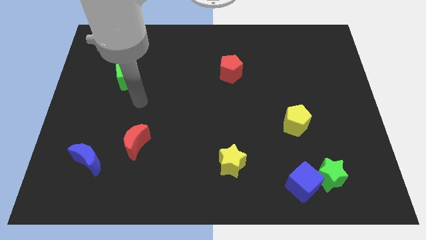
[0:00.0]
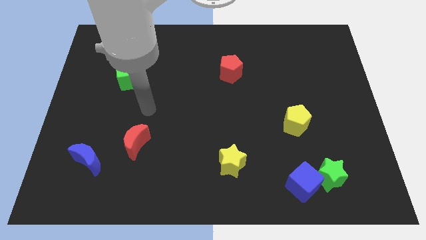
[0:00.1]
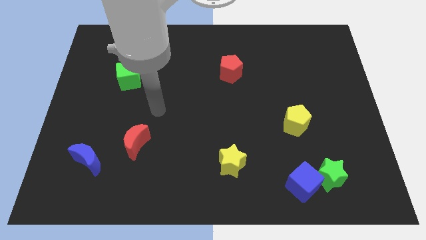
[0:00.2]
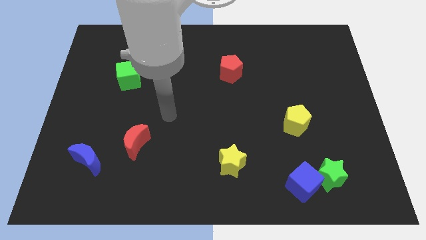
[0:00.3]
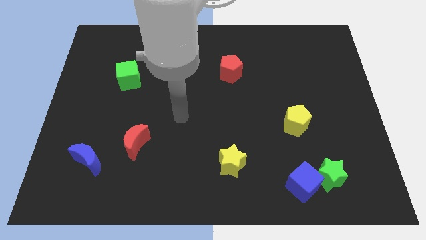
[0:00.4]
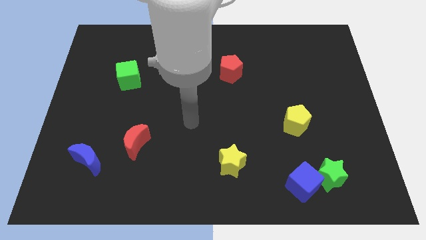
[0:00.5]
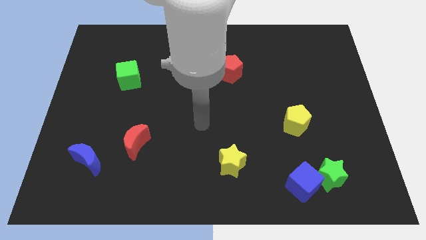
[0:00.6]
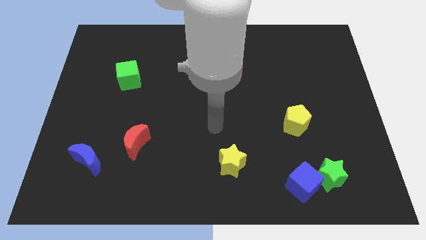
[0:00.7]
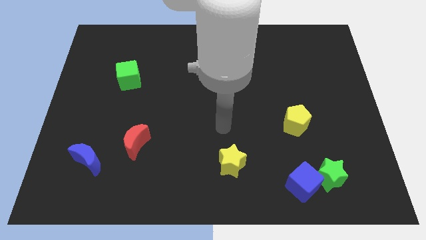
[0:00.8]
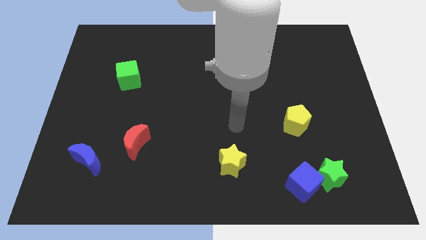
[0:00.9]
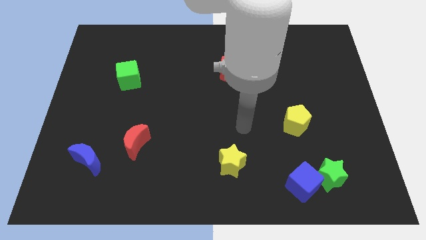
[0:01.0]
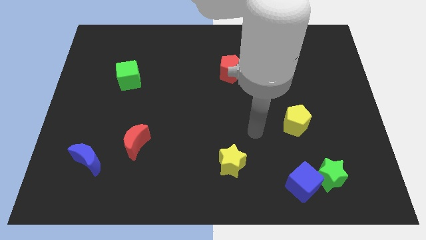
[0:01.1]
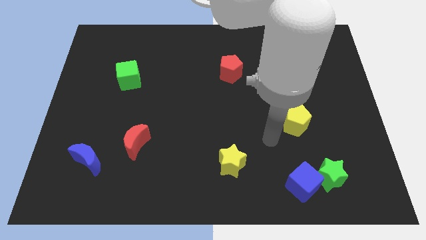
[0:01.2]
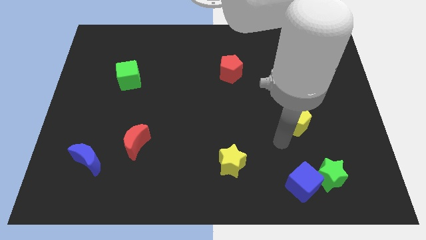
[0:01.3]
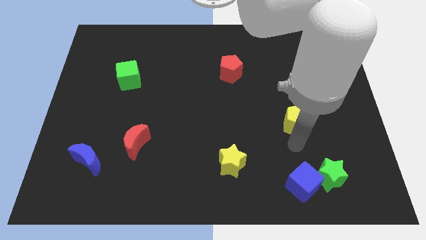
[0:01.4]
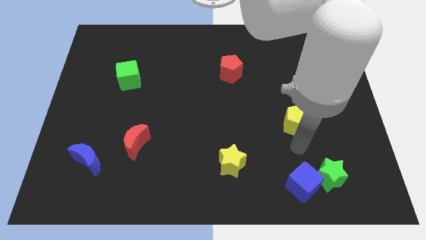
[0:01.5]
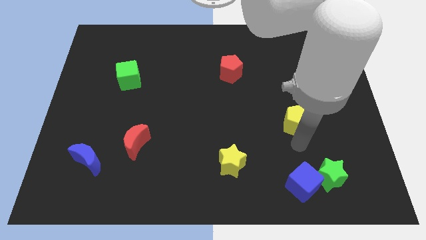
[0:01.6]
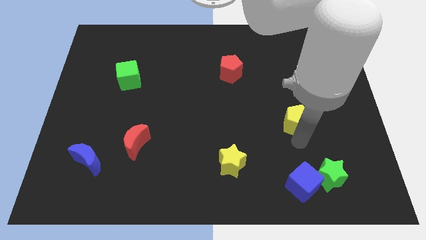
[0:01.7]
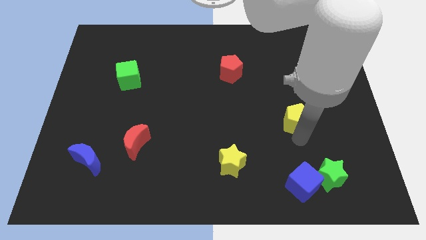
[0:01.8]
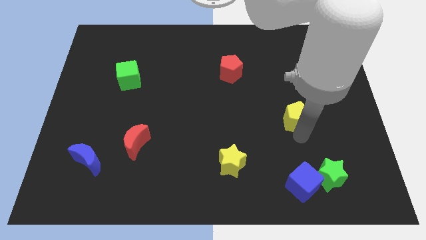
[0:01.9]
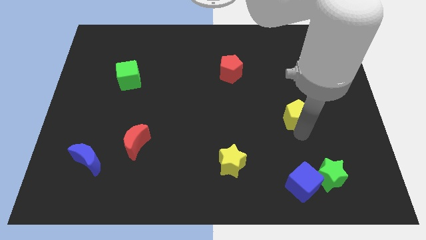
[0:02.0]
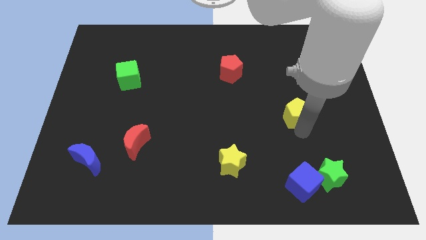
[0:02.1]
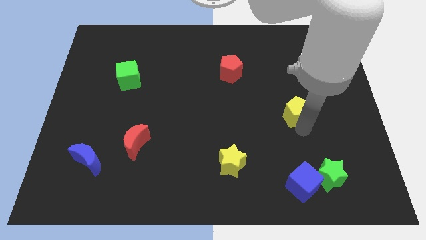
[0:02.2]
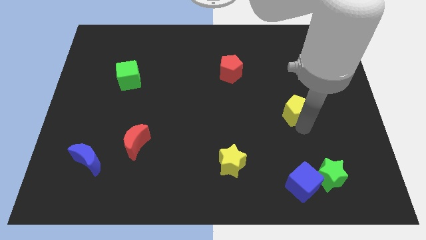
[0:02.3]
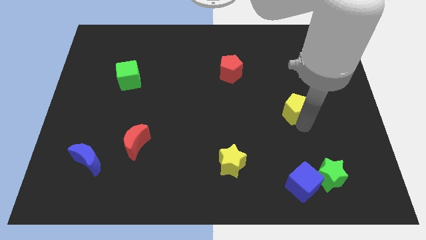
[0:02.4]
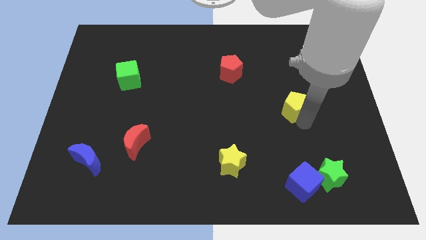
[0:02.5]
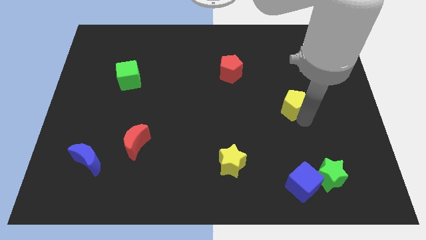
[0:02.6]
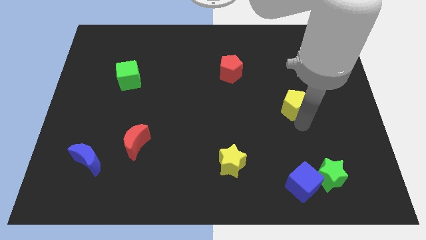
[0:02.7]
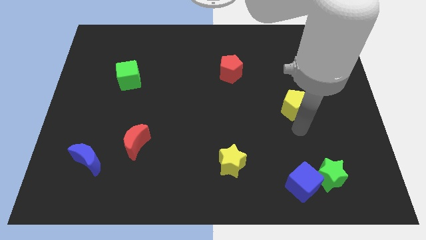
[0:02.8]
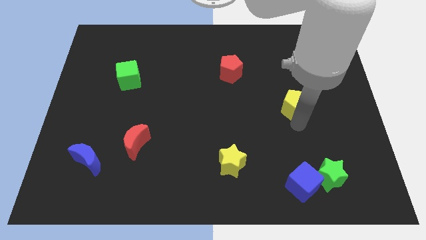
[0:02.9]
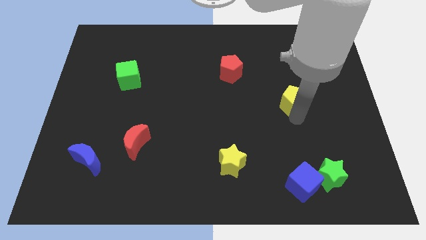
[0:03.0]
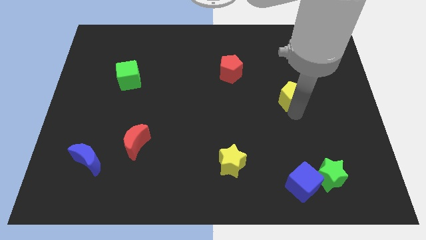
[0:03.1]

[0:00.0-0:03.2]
slide the yellow pentagon a bit up

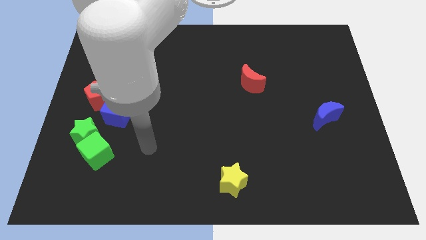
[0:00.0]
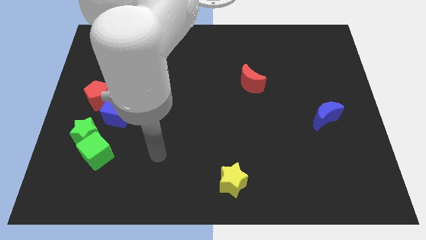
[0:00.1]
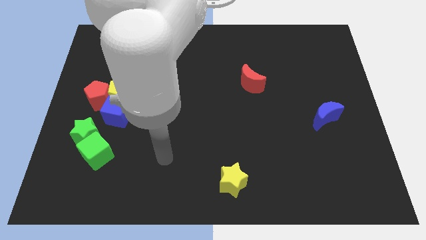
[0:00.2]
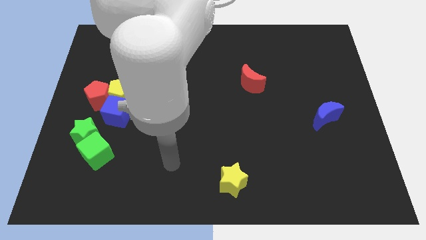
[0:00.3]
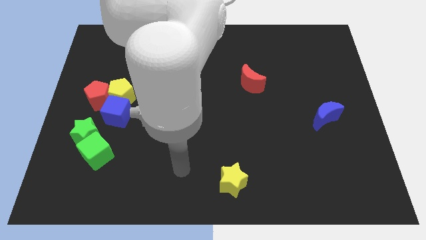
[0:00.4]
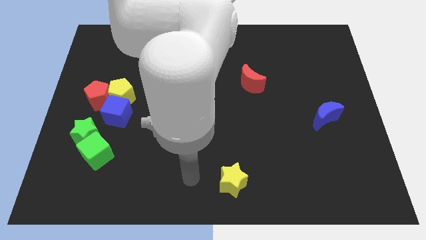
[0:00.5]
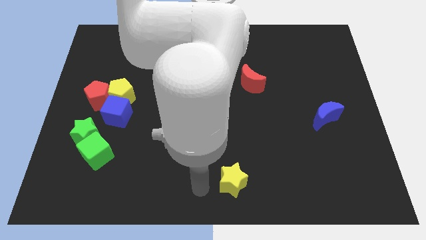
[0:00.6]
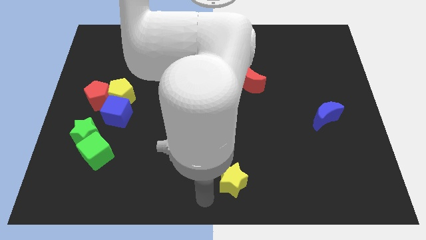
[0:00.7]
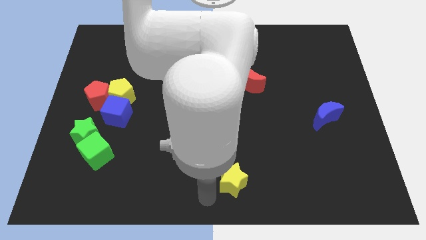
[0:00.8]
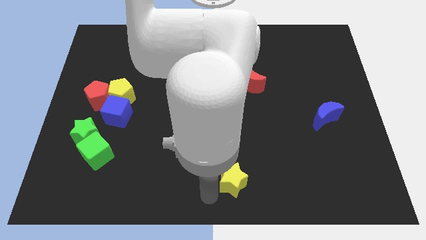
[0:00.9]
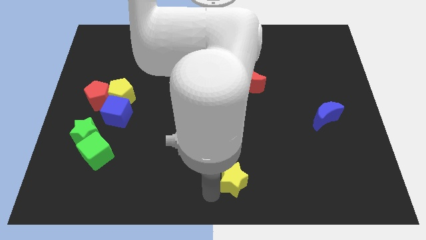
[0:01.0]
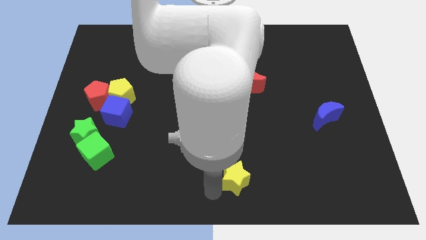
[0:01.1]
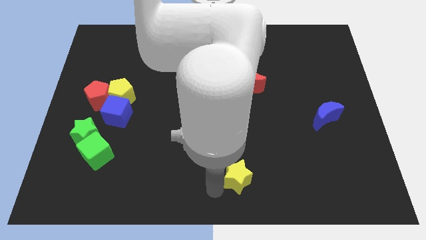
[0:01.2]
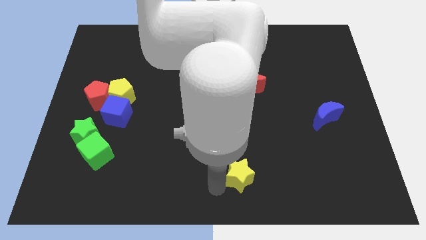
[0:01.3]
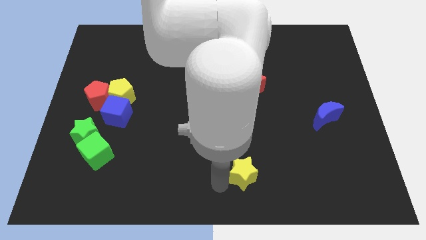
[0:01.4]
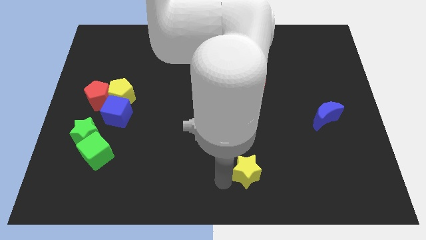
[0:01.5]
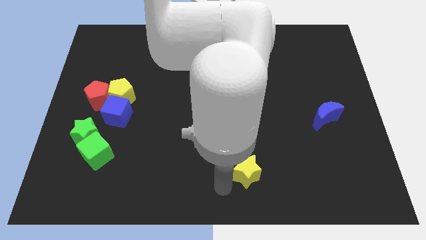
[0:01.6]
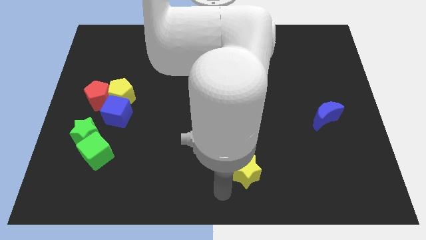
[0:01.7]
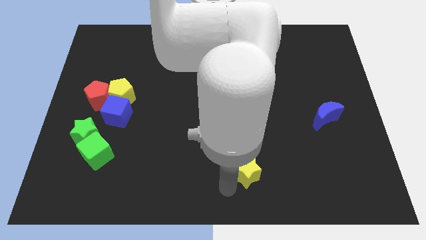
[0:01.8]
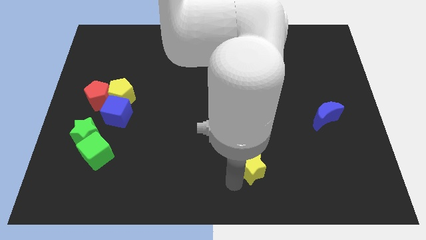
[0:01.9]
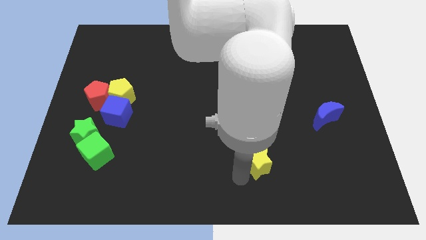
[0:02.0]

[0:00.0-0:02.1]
slightly push the yellow star up and then to the right

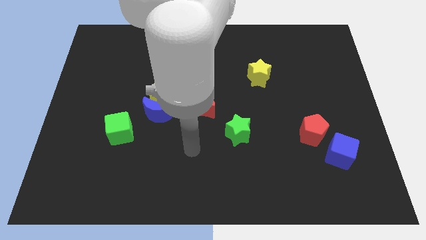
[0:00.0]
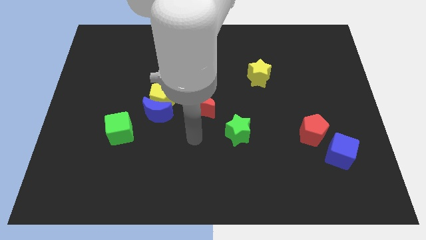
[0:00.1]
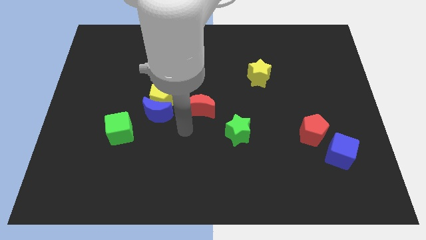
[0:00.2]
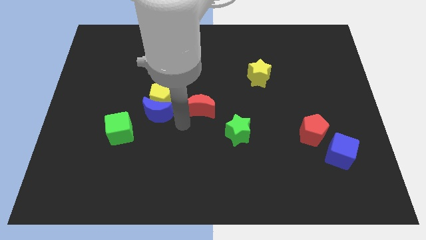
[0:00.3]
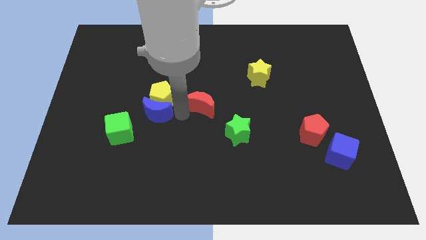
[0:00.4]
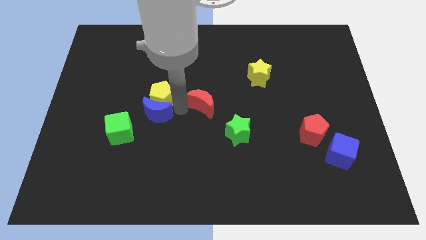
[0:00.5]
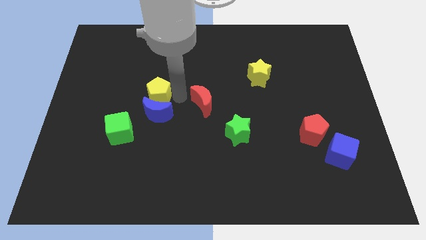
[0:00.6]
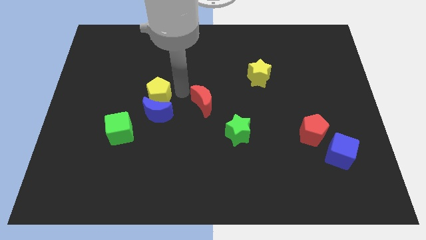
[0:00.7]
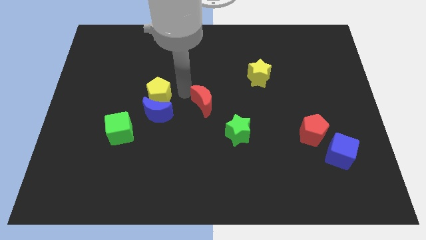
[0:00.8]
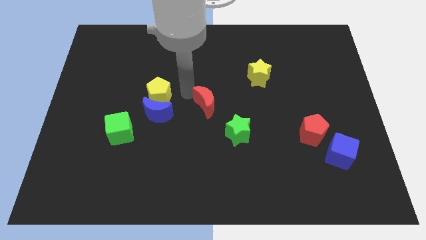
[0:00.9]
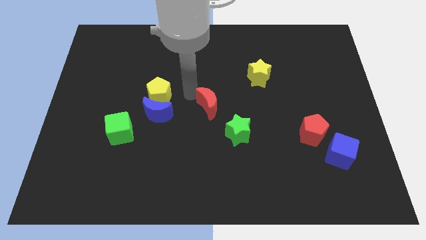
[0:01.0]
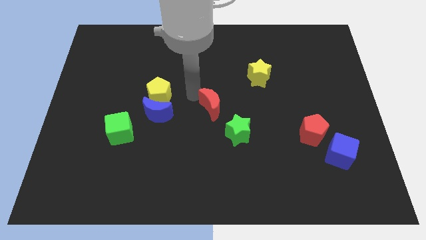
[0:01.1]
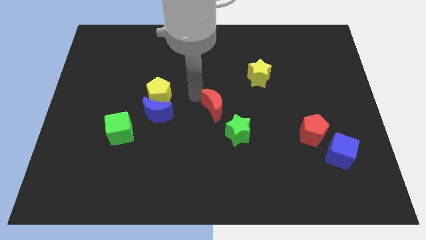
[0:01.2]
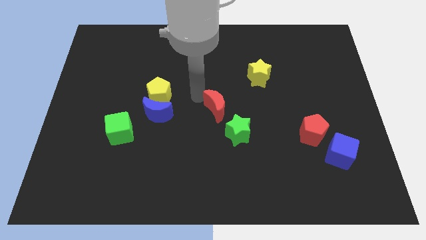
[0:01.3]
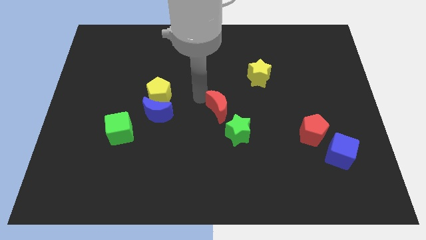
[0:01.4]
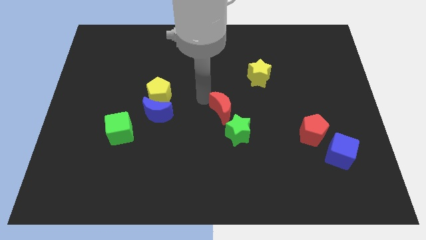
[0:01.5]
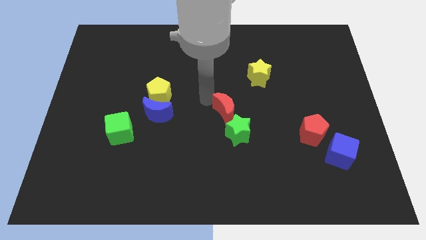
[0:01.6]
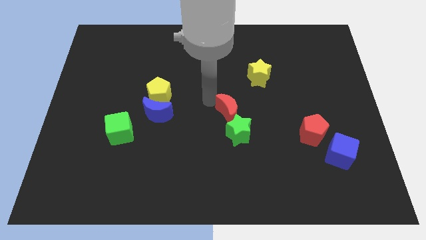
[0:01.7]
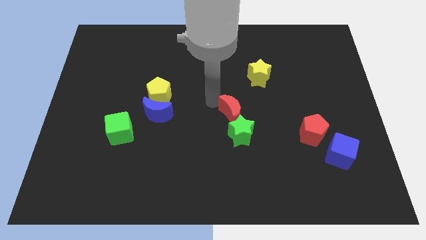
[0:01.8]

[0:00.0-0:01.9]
slide the red moon a little bit right

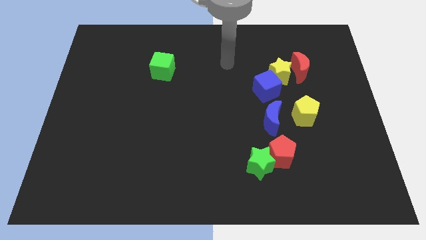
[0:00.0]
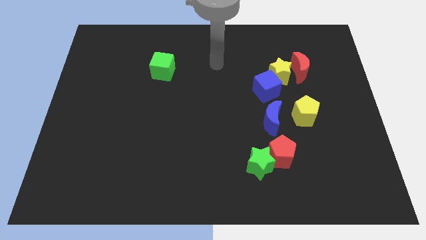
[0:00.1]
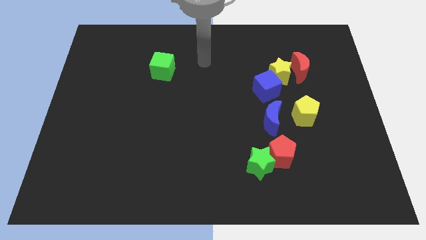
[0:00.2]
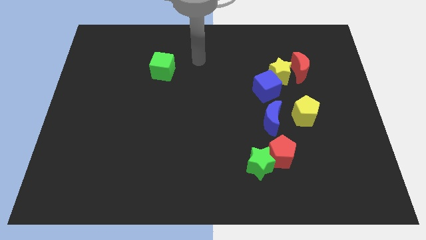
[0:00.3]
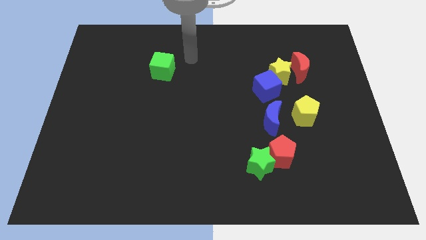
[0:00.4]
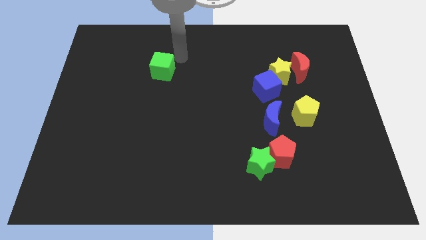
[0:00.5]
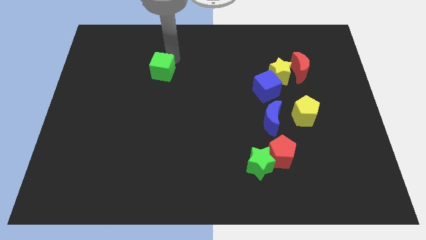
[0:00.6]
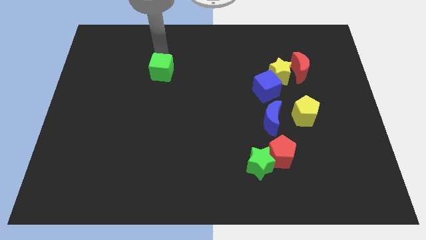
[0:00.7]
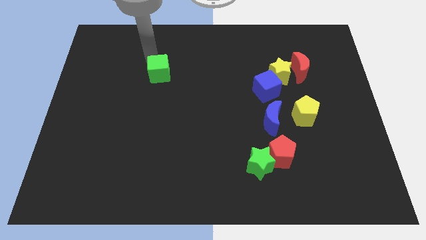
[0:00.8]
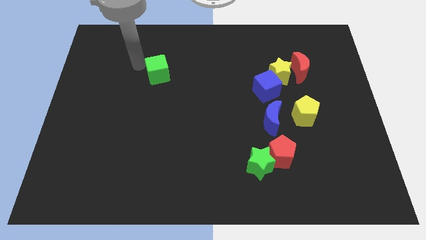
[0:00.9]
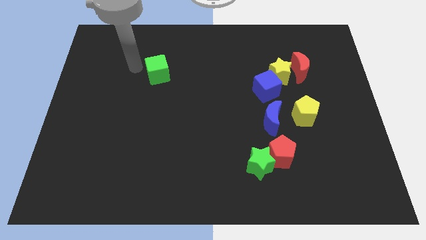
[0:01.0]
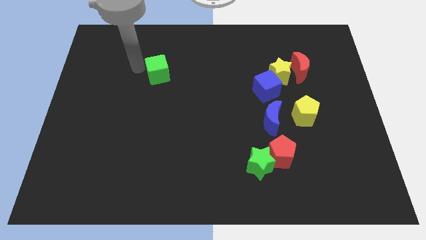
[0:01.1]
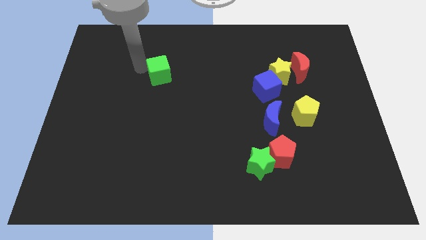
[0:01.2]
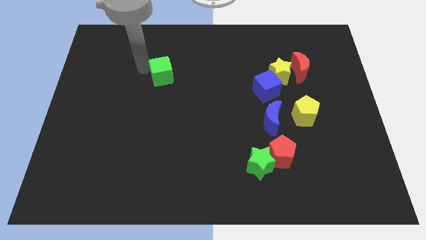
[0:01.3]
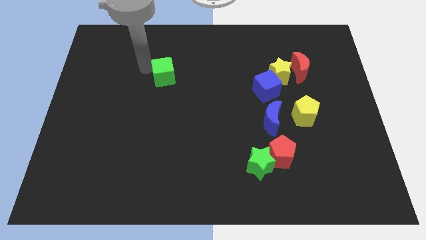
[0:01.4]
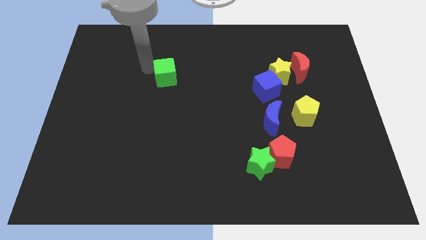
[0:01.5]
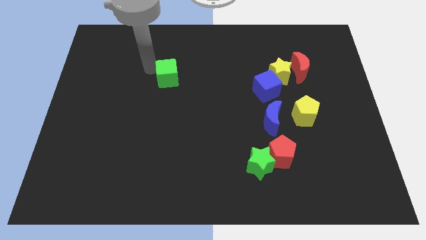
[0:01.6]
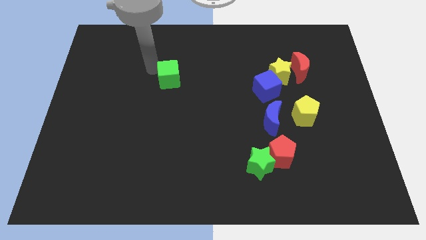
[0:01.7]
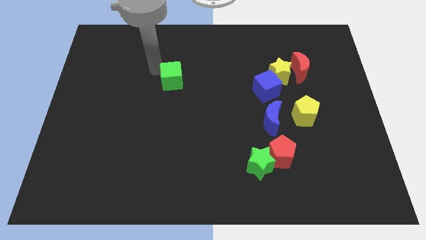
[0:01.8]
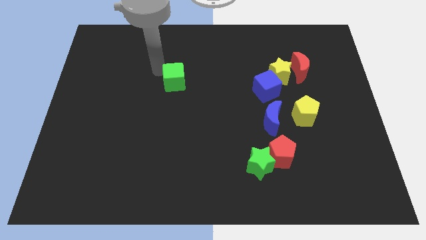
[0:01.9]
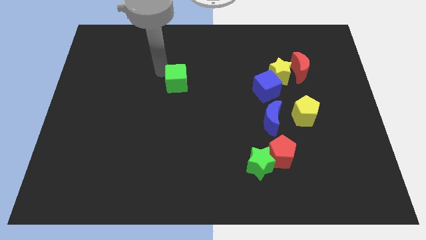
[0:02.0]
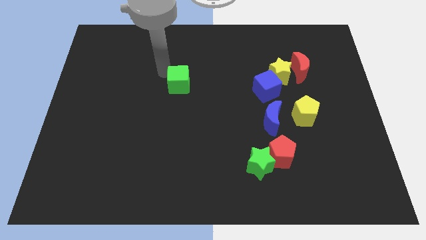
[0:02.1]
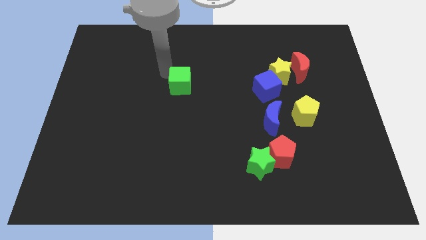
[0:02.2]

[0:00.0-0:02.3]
slide the green cube downwards and then right a little bit
